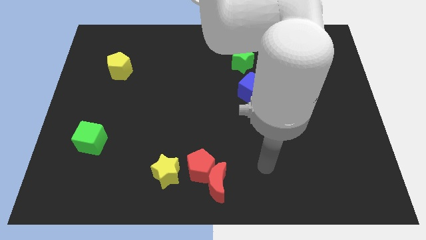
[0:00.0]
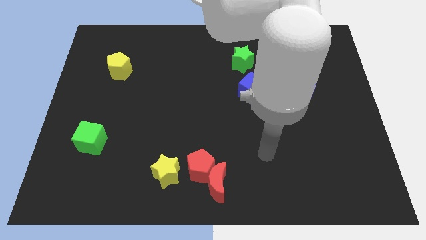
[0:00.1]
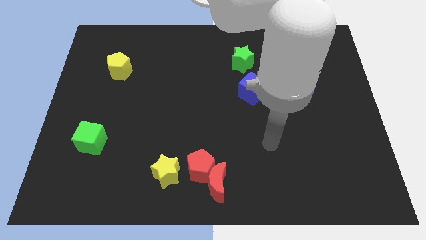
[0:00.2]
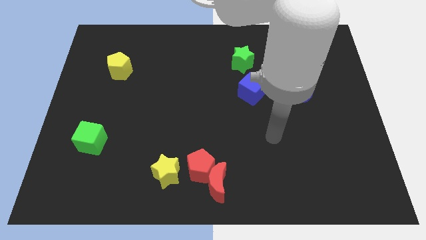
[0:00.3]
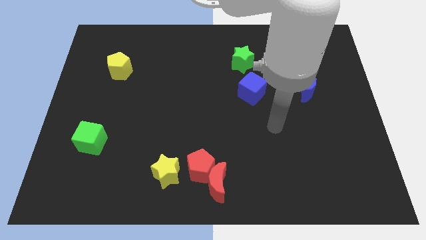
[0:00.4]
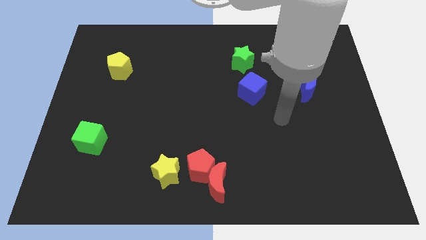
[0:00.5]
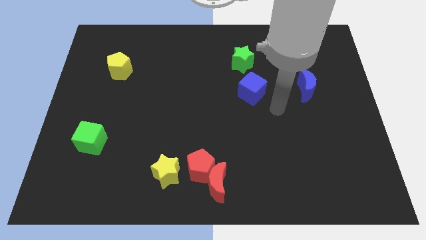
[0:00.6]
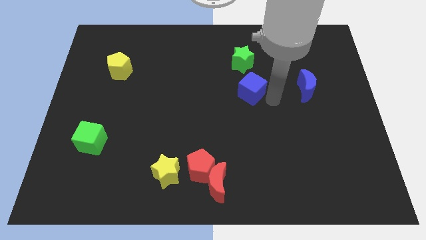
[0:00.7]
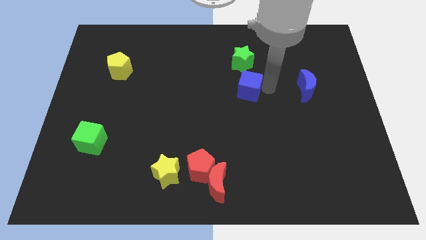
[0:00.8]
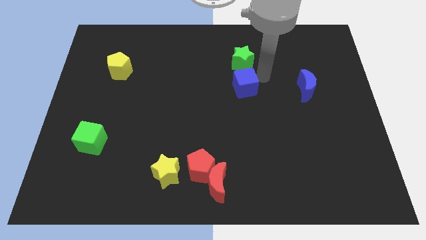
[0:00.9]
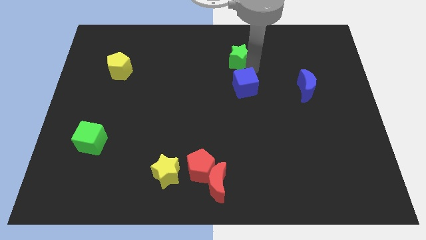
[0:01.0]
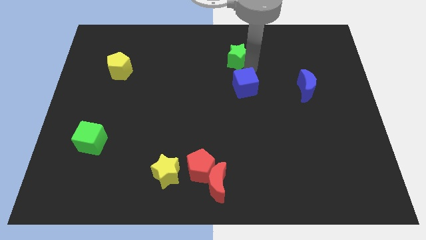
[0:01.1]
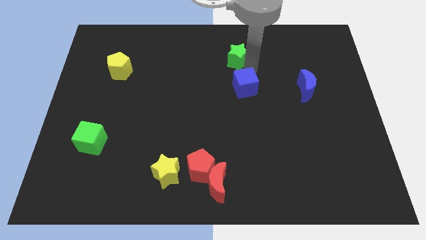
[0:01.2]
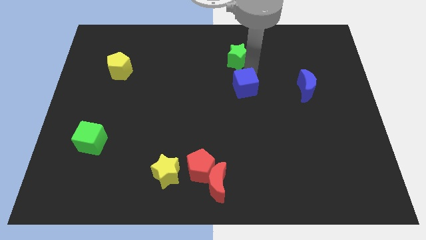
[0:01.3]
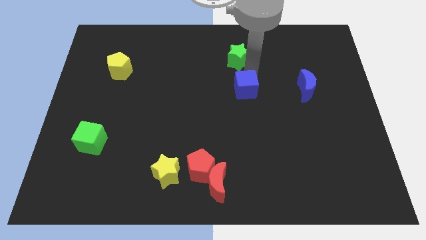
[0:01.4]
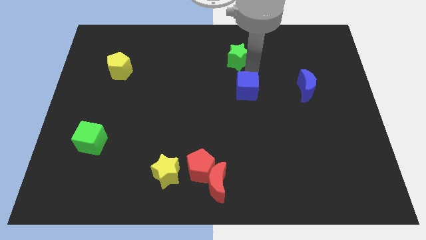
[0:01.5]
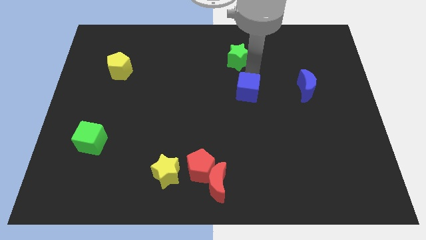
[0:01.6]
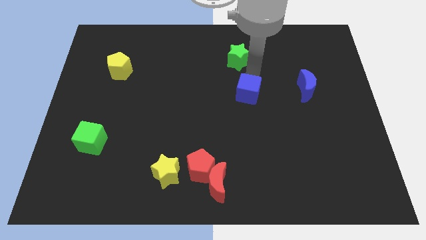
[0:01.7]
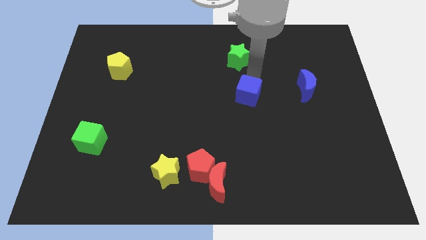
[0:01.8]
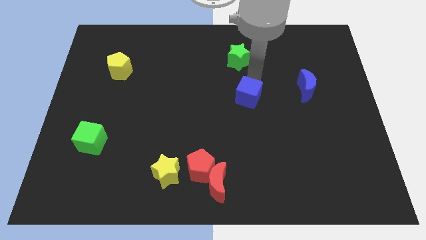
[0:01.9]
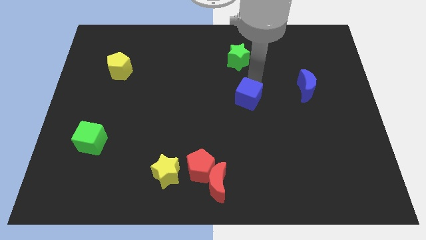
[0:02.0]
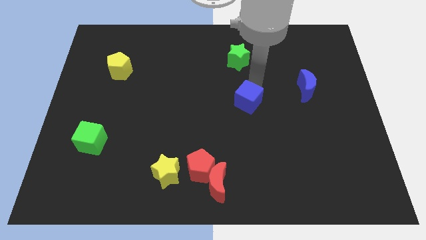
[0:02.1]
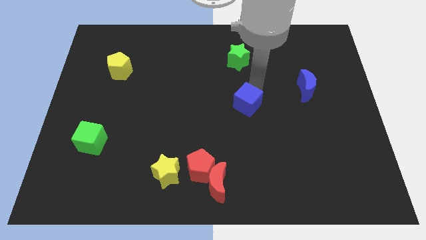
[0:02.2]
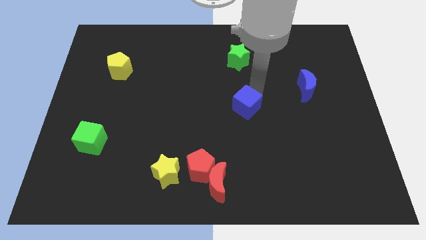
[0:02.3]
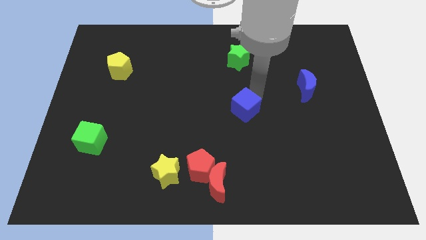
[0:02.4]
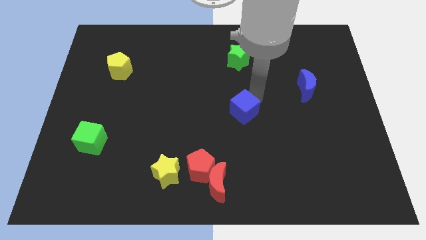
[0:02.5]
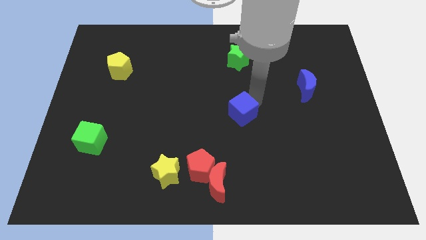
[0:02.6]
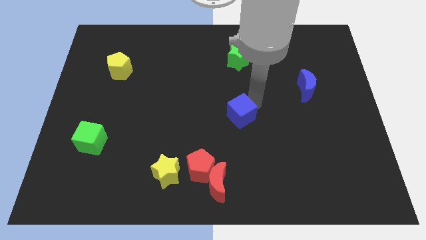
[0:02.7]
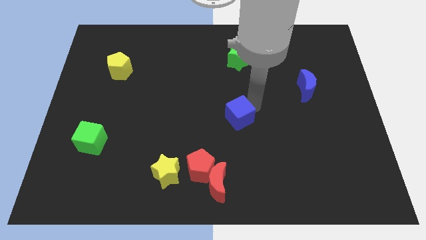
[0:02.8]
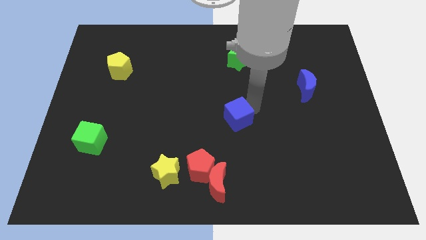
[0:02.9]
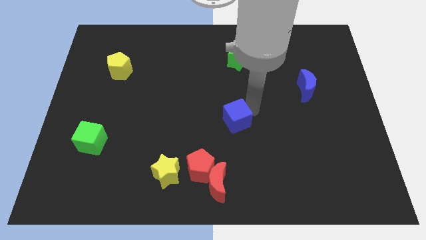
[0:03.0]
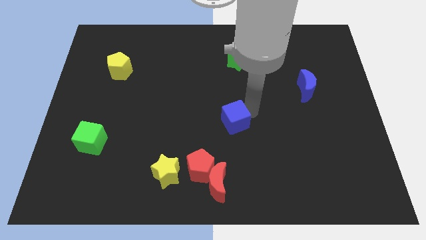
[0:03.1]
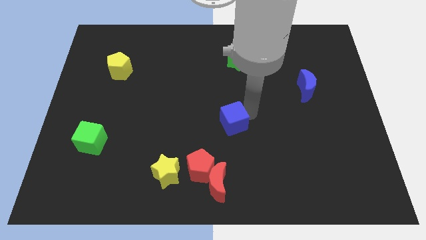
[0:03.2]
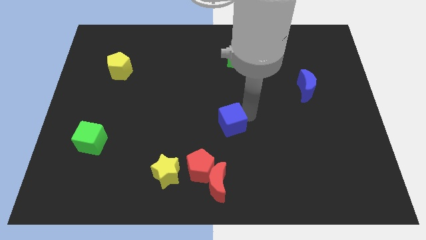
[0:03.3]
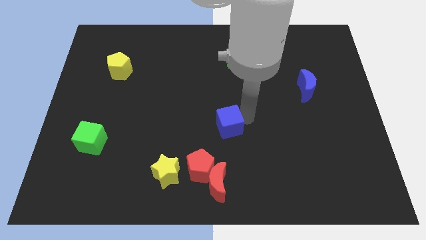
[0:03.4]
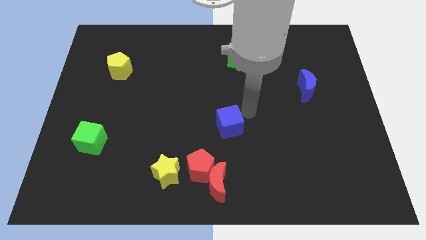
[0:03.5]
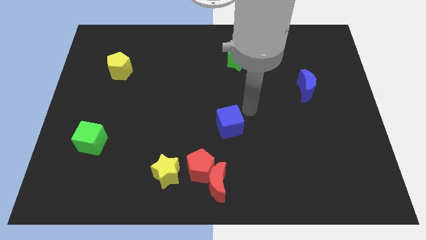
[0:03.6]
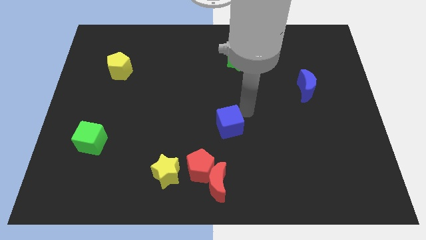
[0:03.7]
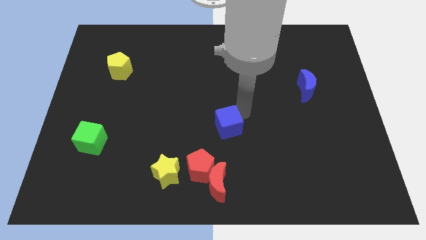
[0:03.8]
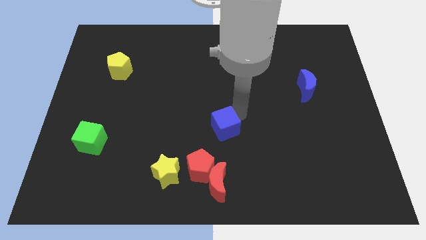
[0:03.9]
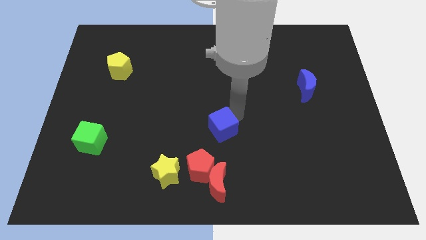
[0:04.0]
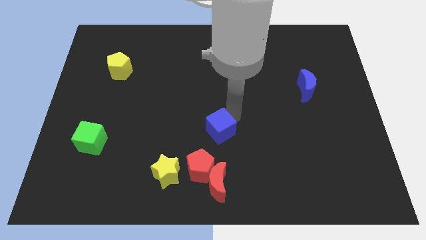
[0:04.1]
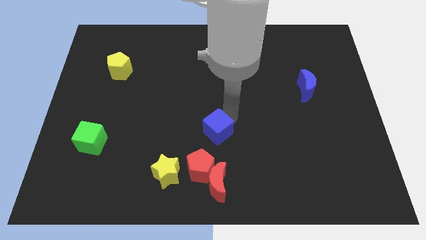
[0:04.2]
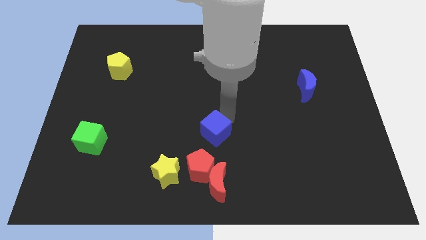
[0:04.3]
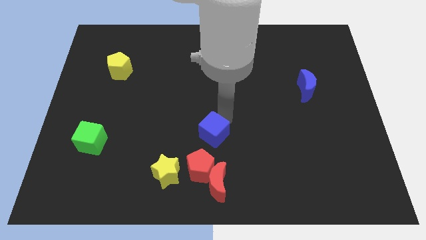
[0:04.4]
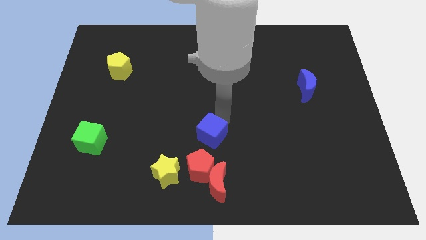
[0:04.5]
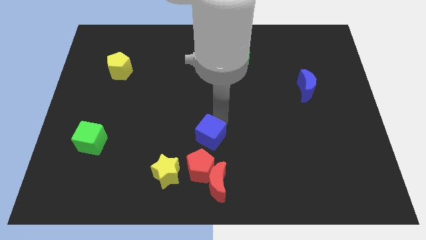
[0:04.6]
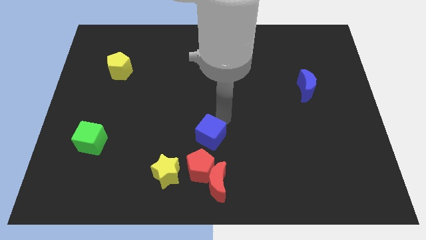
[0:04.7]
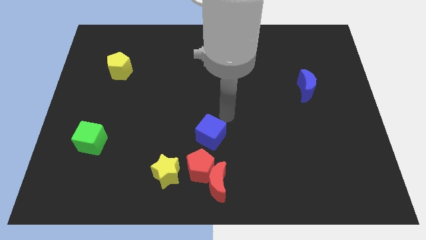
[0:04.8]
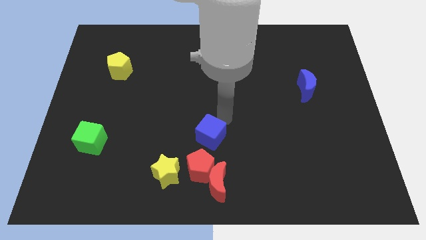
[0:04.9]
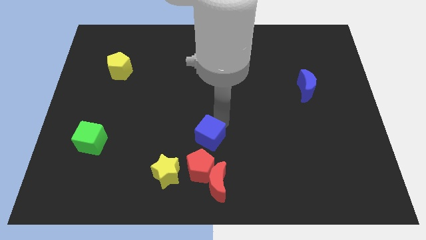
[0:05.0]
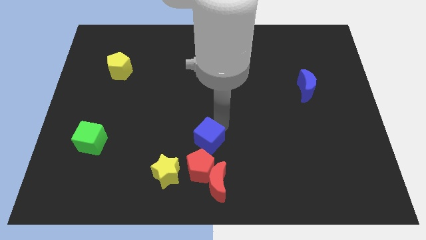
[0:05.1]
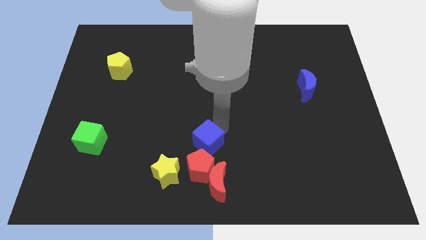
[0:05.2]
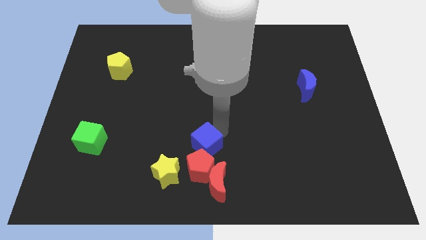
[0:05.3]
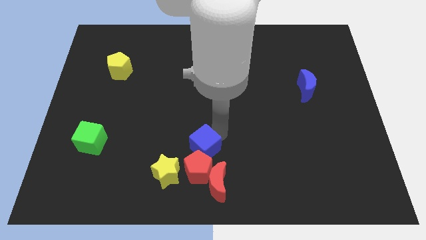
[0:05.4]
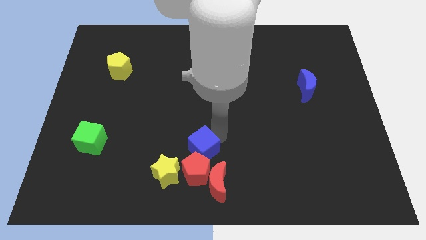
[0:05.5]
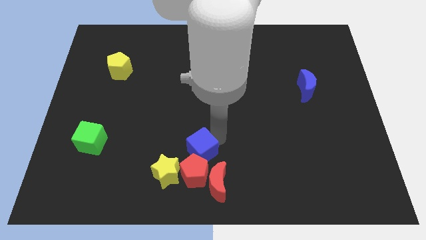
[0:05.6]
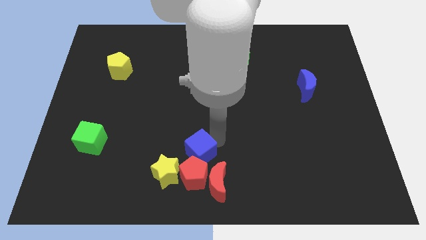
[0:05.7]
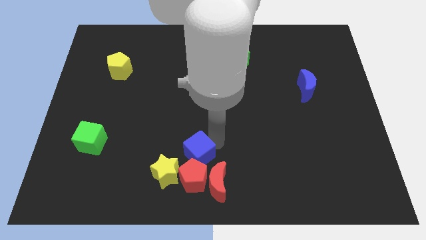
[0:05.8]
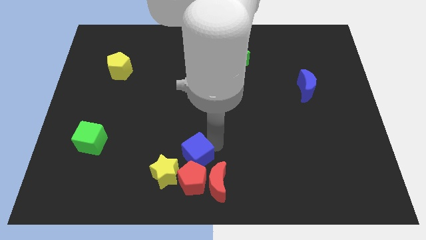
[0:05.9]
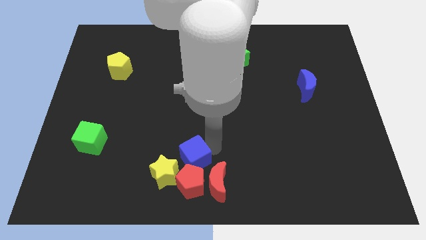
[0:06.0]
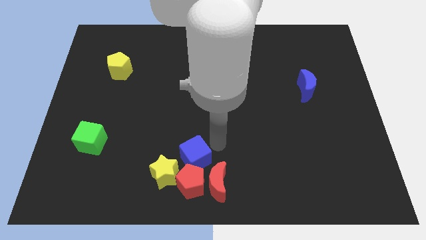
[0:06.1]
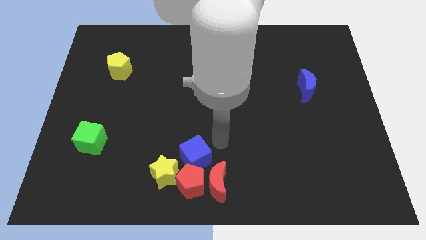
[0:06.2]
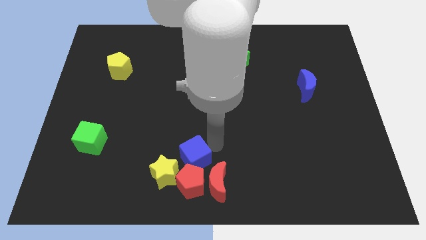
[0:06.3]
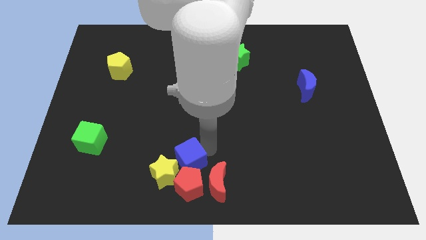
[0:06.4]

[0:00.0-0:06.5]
put the blue cube towards the yellow star

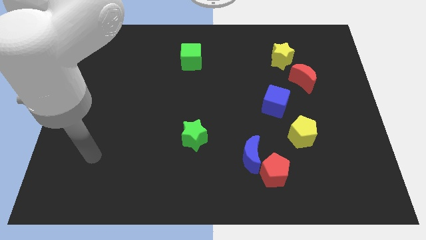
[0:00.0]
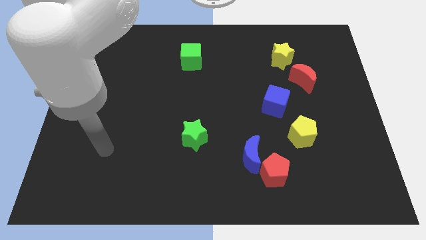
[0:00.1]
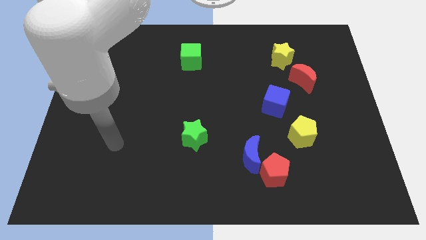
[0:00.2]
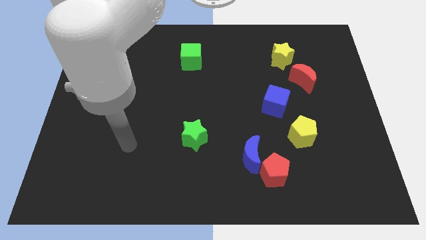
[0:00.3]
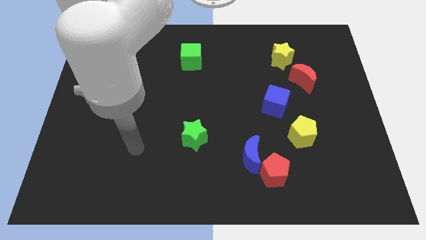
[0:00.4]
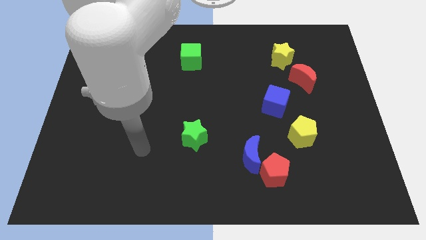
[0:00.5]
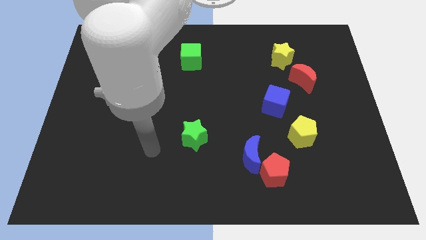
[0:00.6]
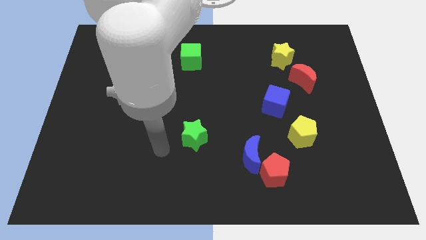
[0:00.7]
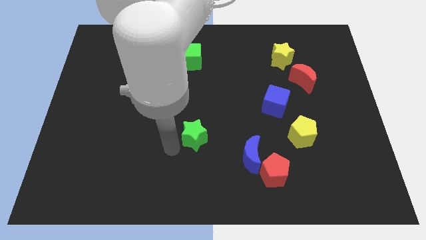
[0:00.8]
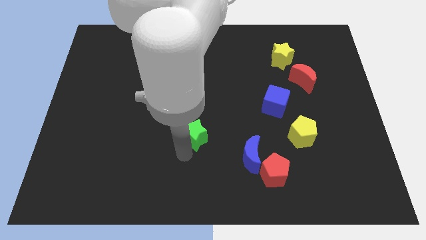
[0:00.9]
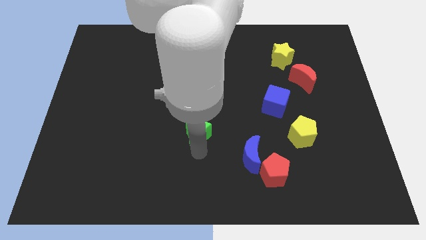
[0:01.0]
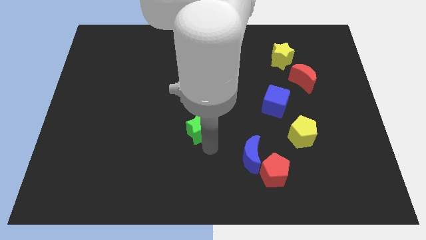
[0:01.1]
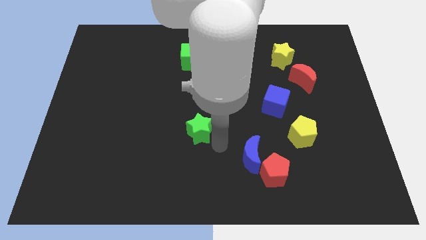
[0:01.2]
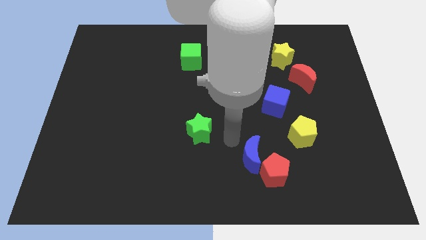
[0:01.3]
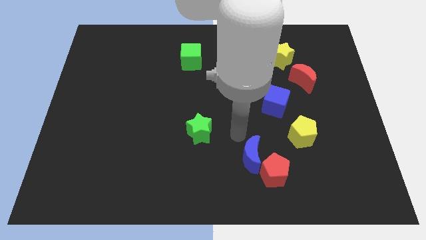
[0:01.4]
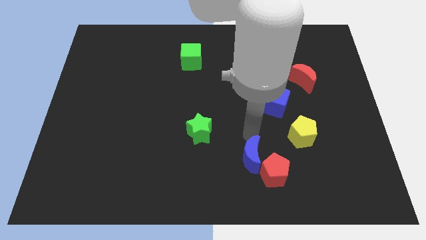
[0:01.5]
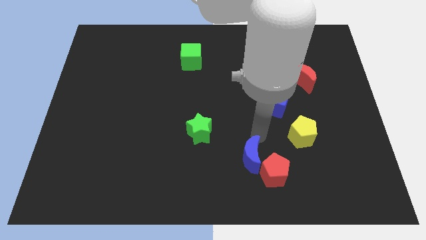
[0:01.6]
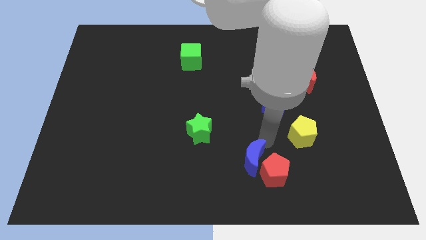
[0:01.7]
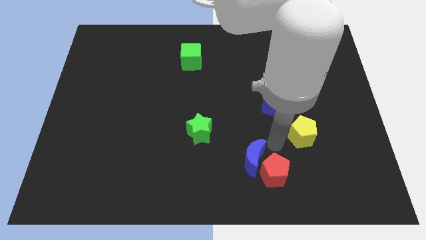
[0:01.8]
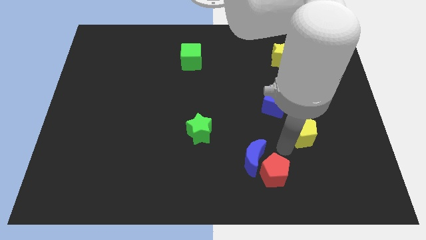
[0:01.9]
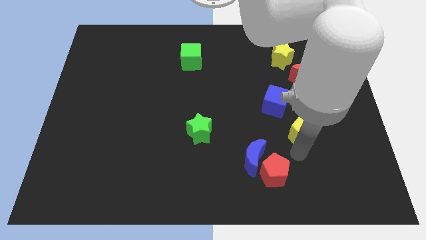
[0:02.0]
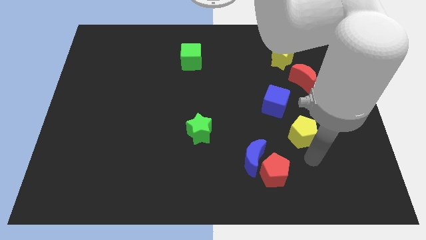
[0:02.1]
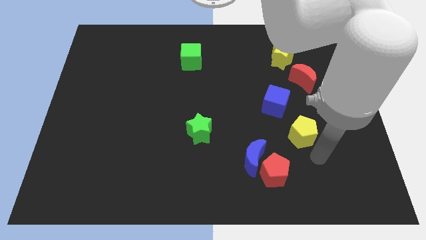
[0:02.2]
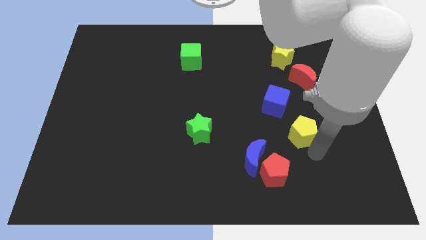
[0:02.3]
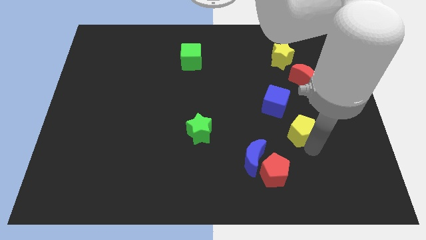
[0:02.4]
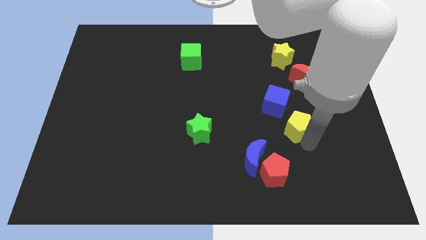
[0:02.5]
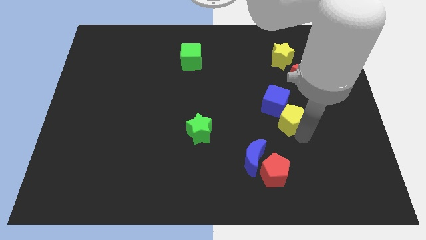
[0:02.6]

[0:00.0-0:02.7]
put the yellow pentagon towards the blue cube
